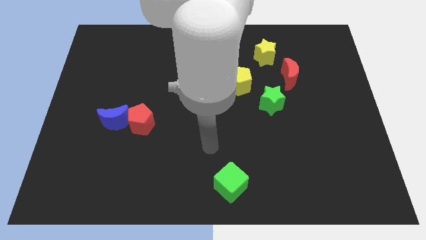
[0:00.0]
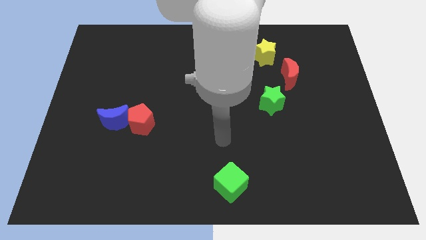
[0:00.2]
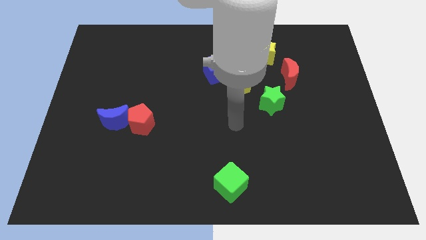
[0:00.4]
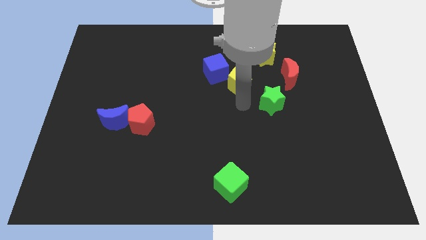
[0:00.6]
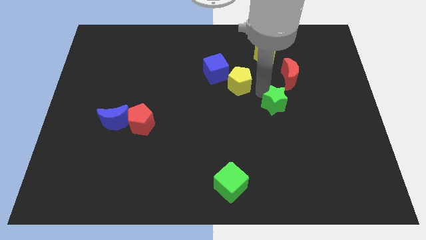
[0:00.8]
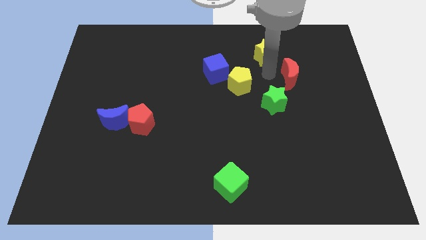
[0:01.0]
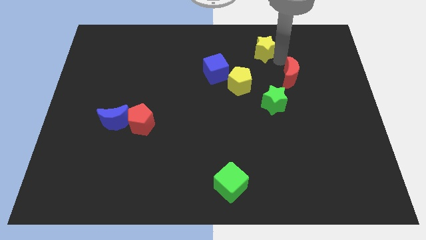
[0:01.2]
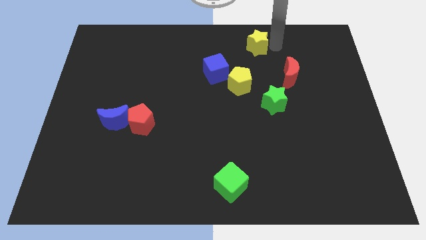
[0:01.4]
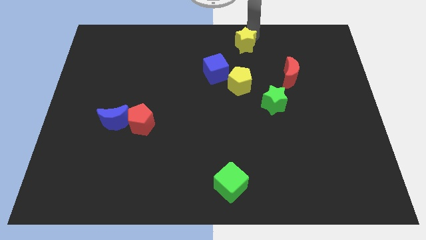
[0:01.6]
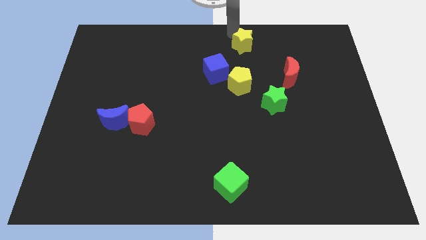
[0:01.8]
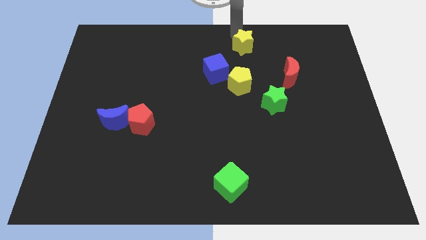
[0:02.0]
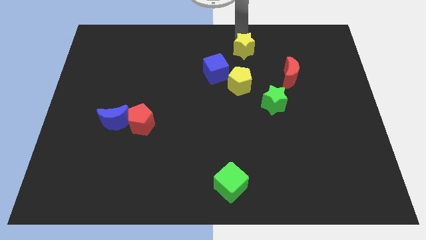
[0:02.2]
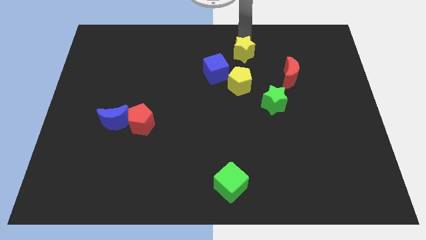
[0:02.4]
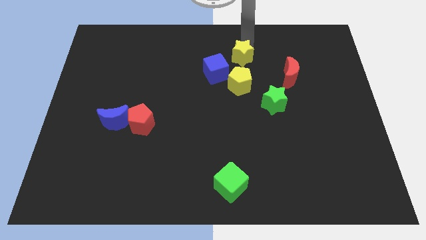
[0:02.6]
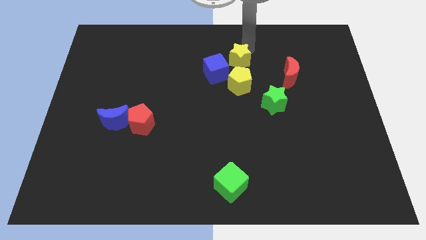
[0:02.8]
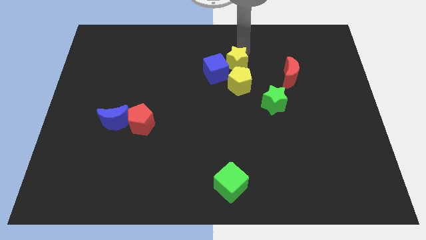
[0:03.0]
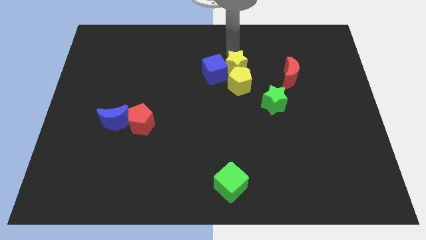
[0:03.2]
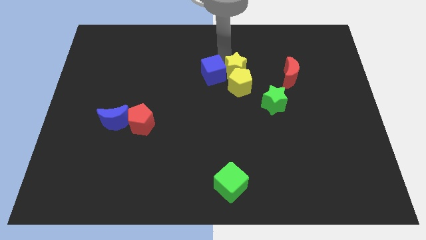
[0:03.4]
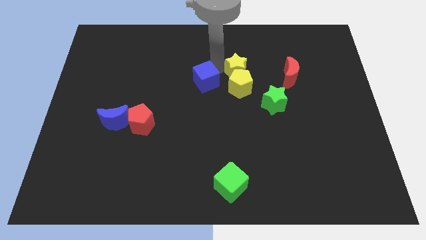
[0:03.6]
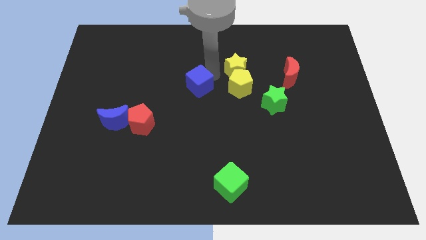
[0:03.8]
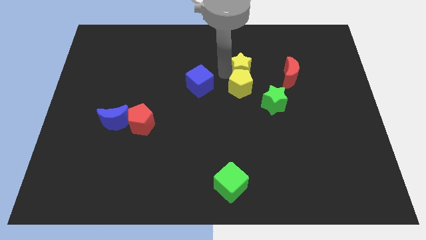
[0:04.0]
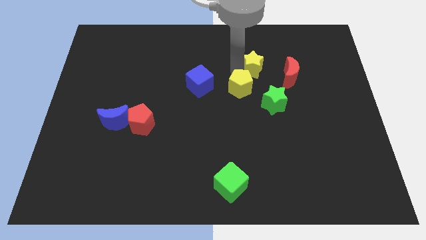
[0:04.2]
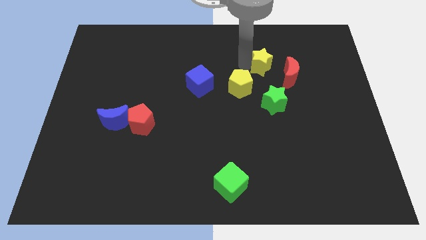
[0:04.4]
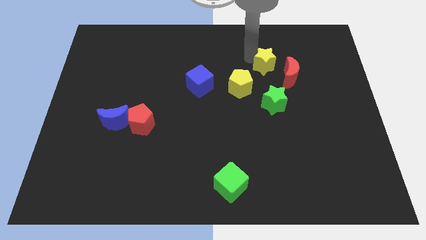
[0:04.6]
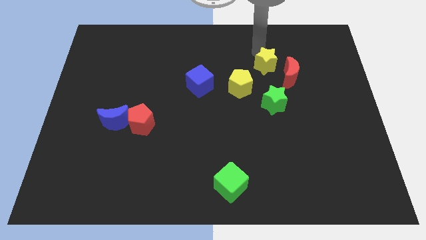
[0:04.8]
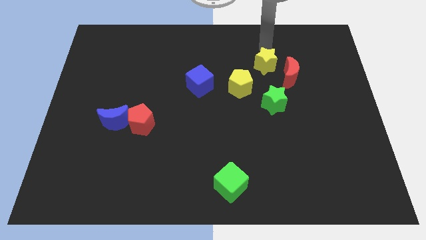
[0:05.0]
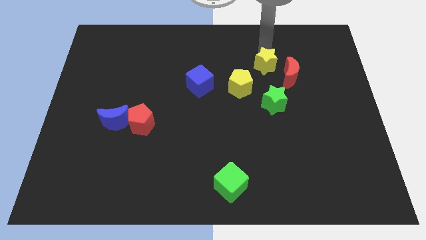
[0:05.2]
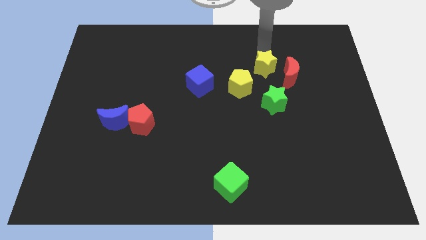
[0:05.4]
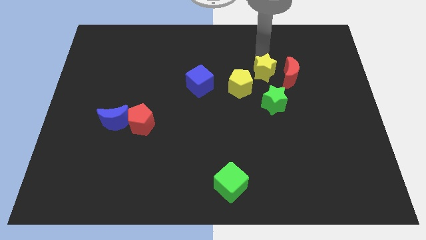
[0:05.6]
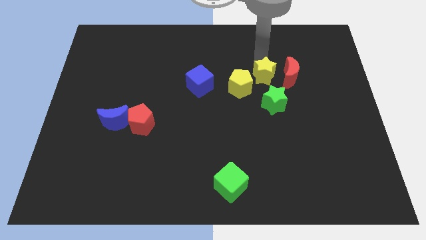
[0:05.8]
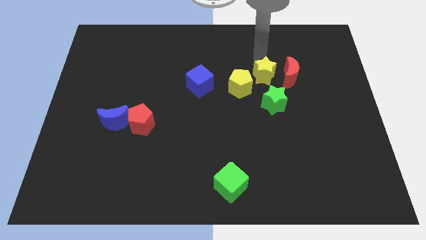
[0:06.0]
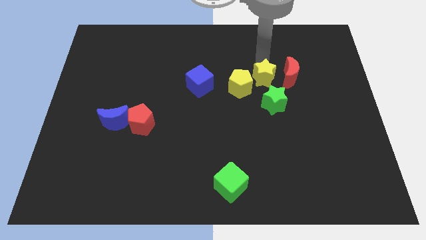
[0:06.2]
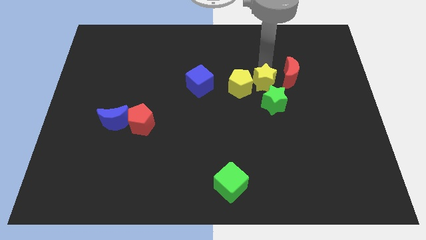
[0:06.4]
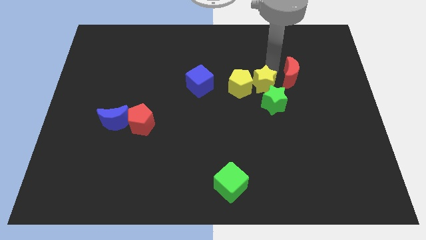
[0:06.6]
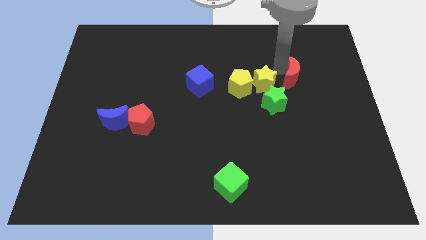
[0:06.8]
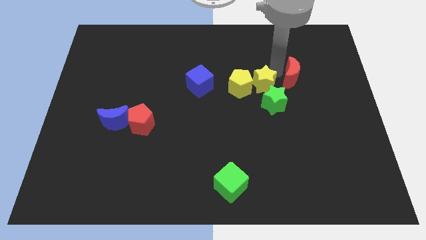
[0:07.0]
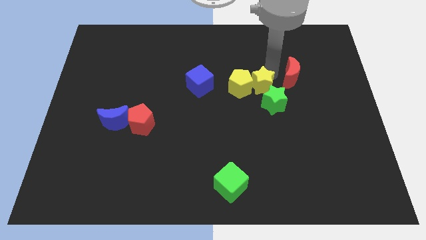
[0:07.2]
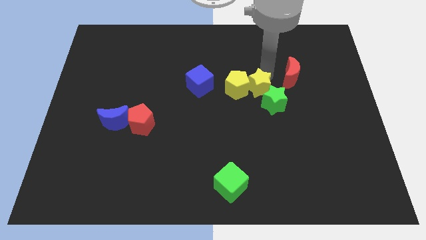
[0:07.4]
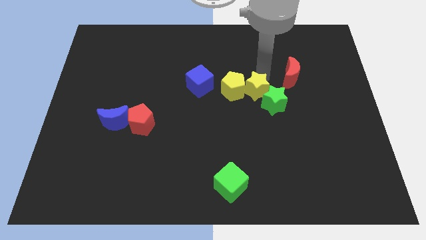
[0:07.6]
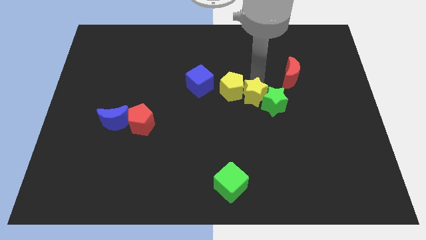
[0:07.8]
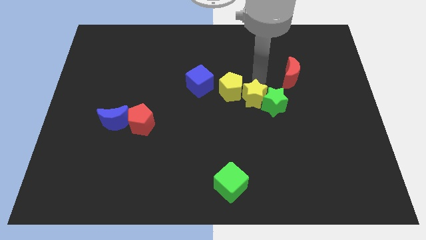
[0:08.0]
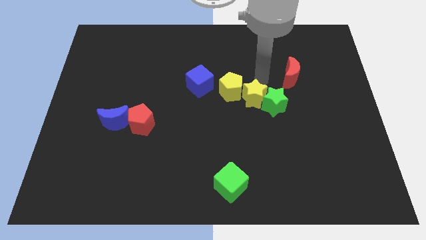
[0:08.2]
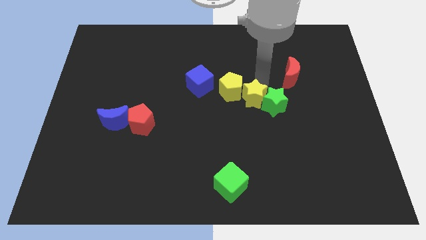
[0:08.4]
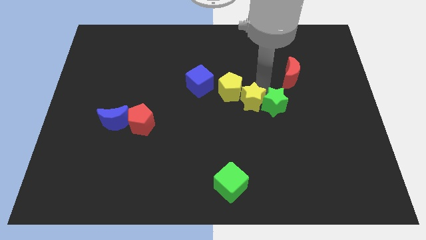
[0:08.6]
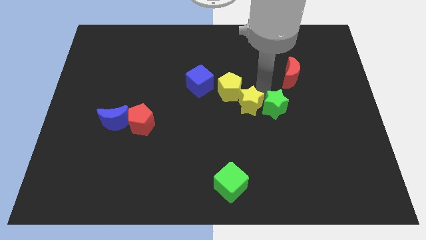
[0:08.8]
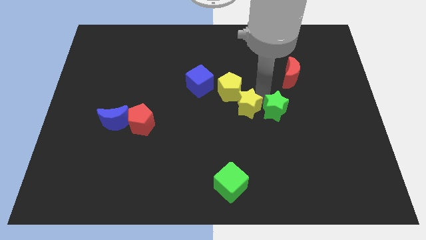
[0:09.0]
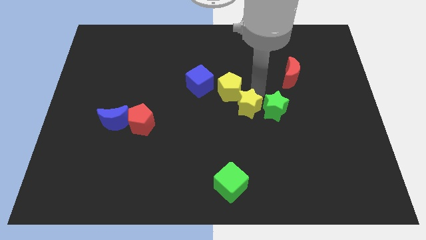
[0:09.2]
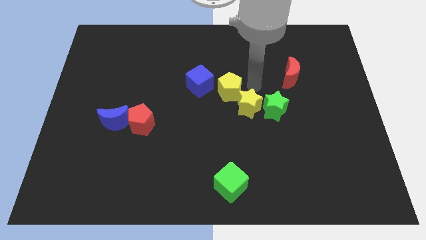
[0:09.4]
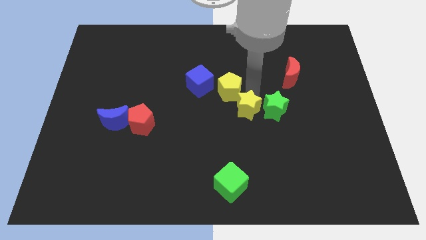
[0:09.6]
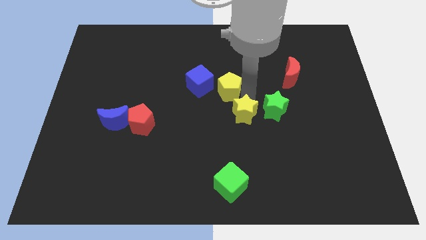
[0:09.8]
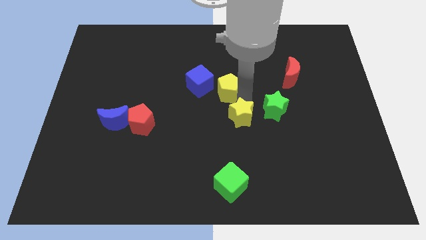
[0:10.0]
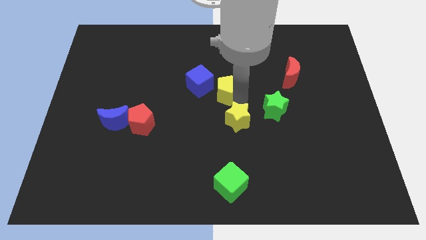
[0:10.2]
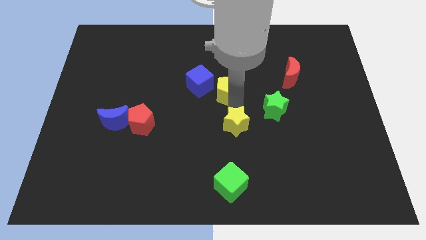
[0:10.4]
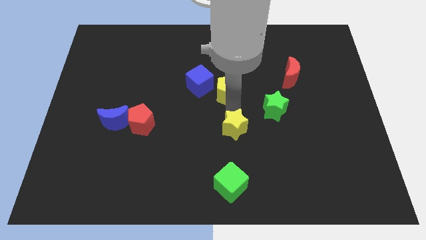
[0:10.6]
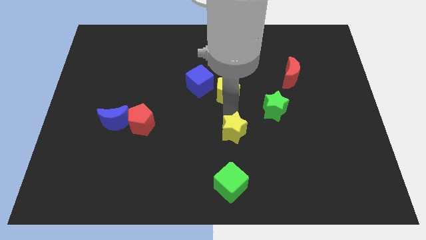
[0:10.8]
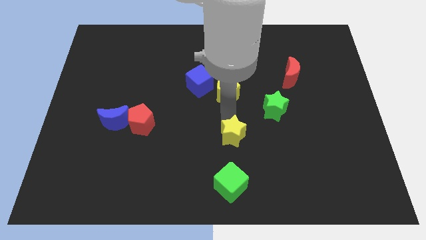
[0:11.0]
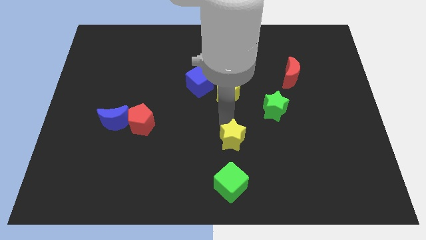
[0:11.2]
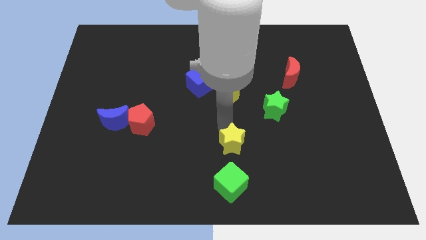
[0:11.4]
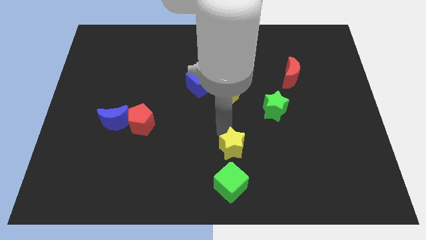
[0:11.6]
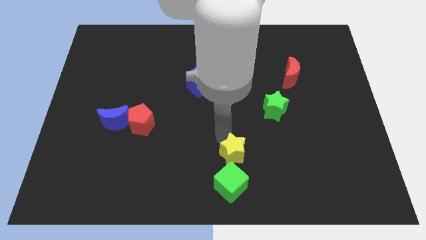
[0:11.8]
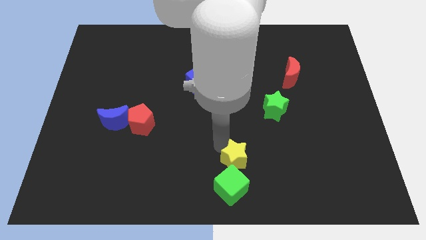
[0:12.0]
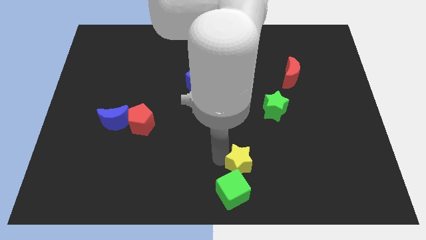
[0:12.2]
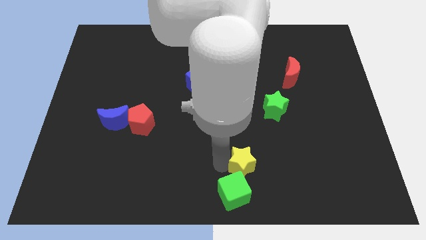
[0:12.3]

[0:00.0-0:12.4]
move the yellow star towards the green cube

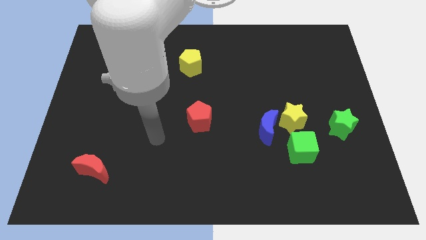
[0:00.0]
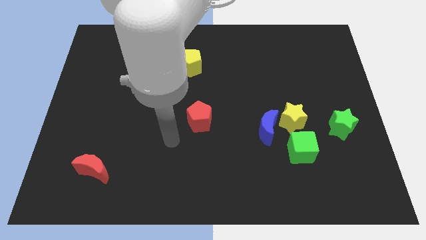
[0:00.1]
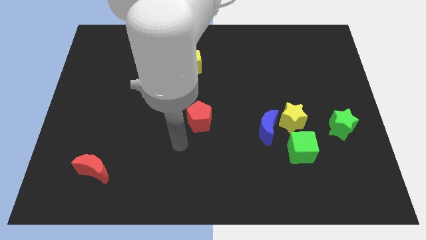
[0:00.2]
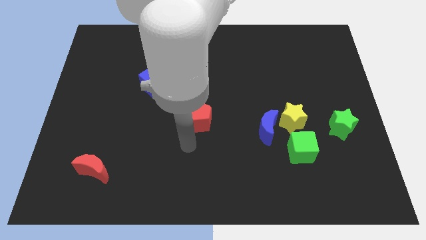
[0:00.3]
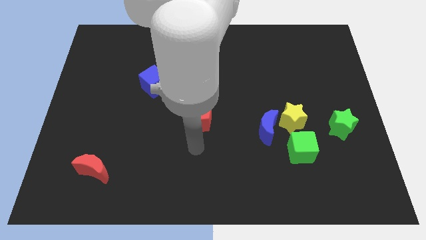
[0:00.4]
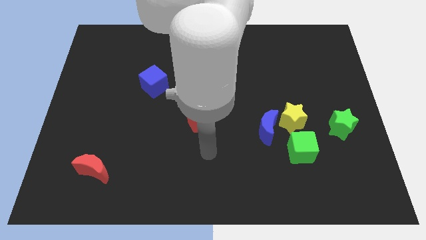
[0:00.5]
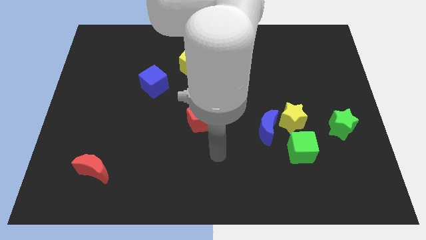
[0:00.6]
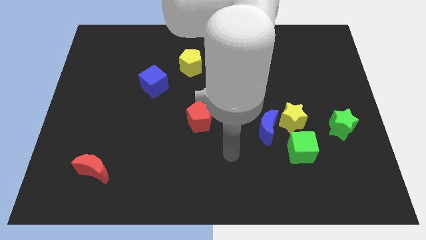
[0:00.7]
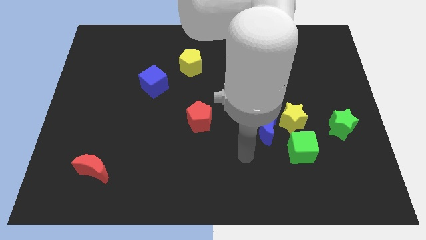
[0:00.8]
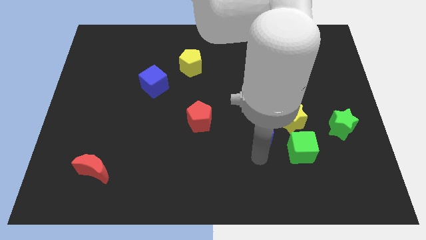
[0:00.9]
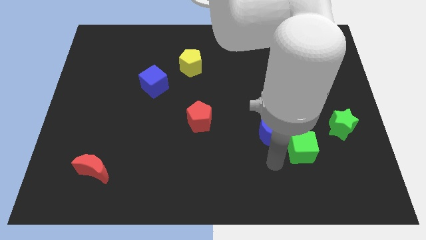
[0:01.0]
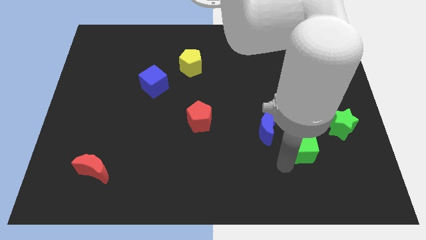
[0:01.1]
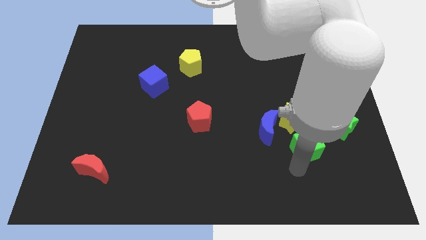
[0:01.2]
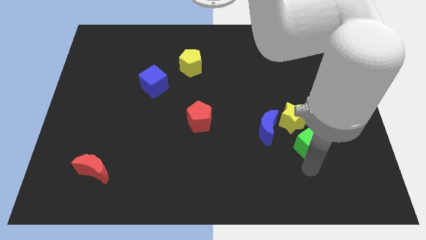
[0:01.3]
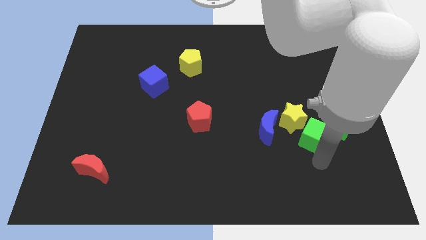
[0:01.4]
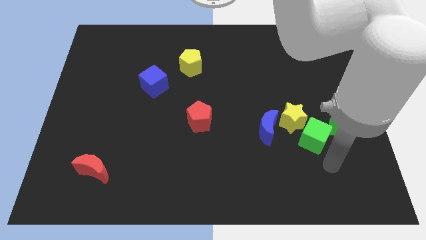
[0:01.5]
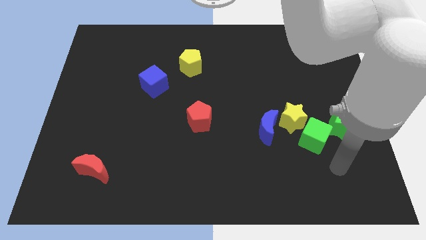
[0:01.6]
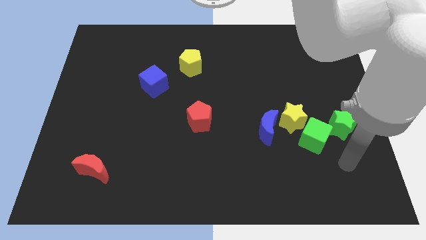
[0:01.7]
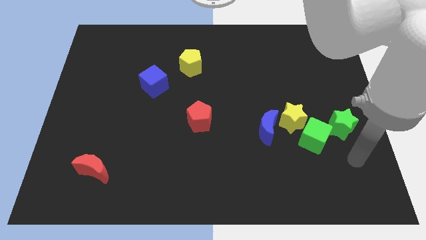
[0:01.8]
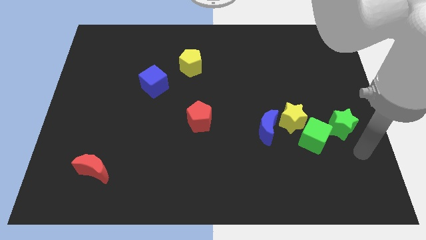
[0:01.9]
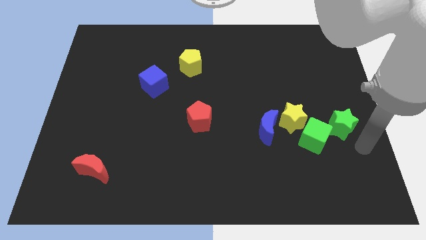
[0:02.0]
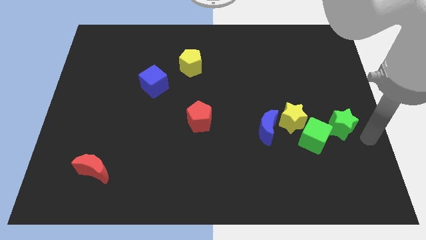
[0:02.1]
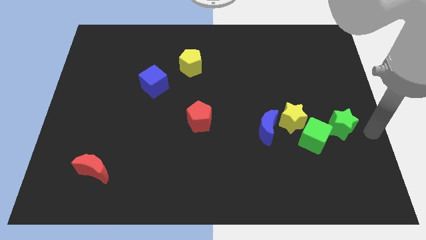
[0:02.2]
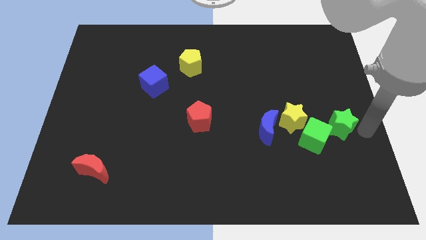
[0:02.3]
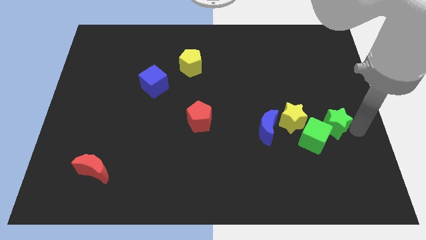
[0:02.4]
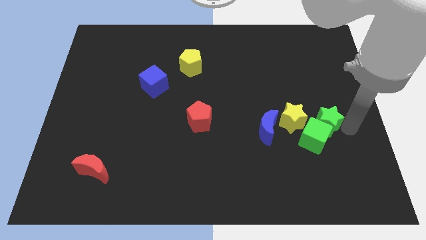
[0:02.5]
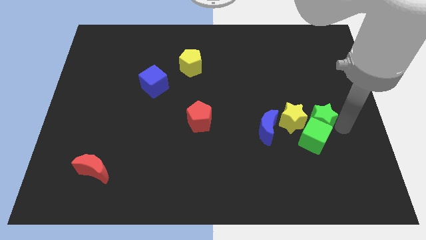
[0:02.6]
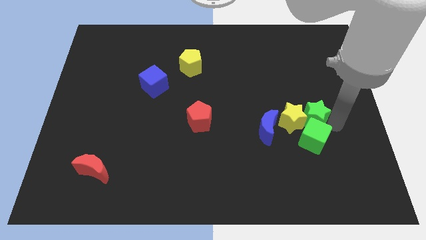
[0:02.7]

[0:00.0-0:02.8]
push the green star close to the yellow star
